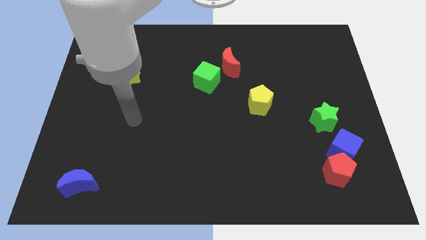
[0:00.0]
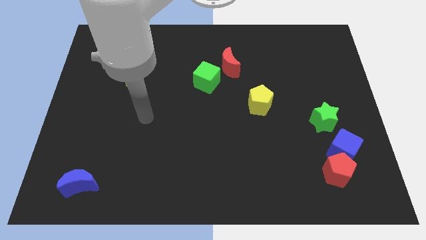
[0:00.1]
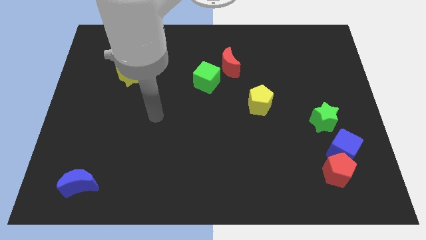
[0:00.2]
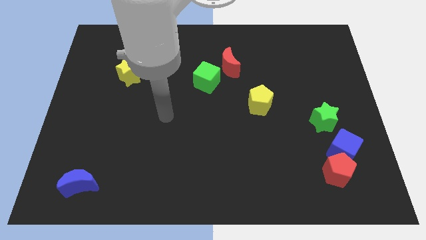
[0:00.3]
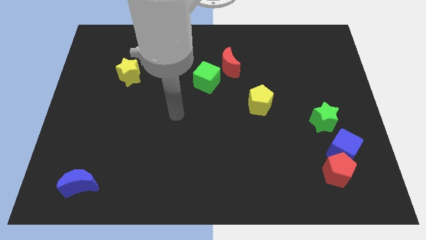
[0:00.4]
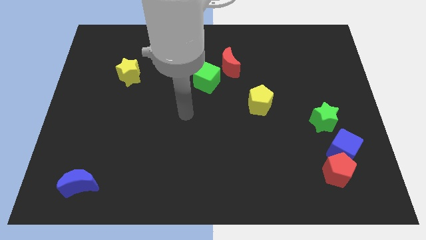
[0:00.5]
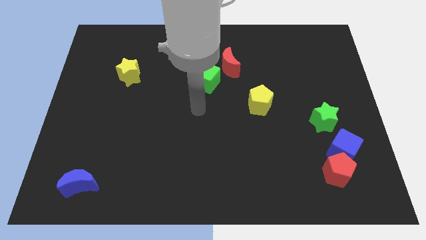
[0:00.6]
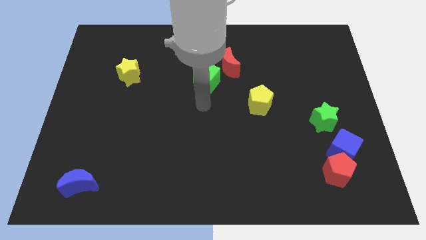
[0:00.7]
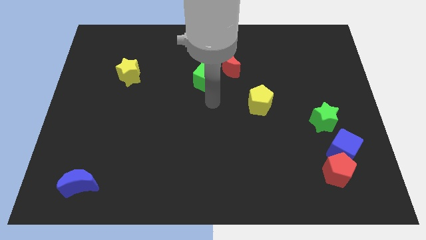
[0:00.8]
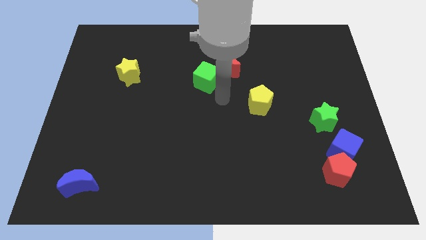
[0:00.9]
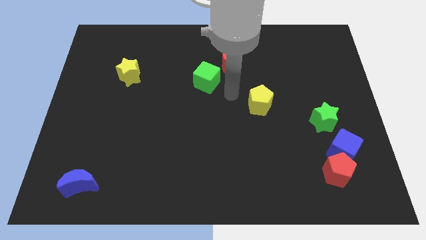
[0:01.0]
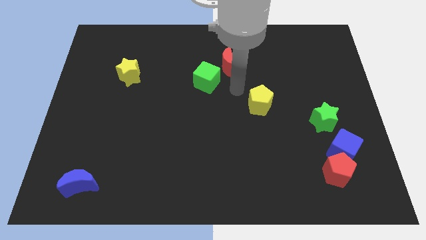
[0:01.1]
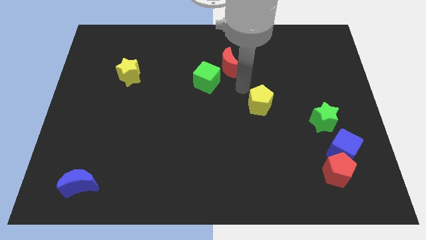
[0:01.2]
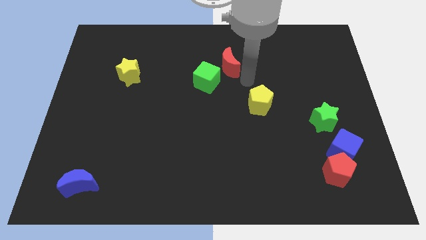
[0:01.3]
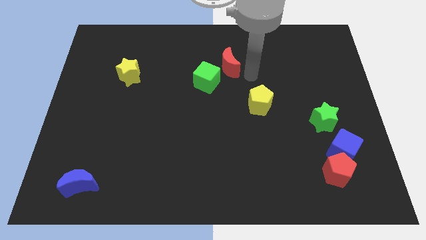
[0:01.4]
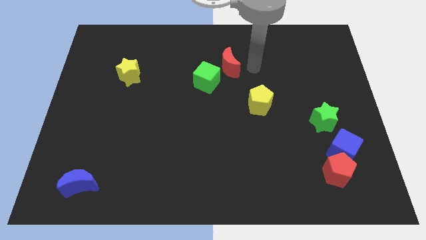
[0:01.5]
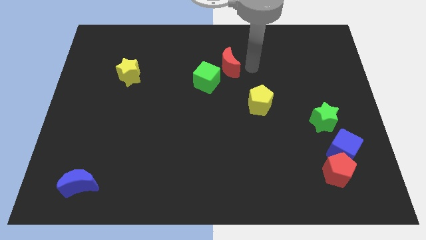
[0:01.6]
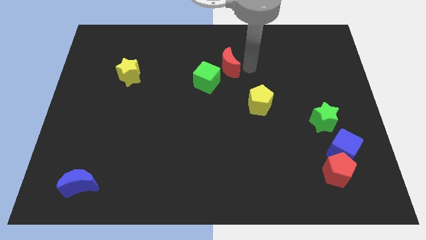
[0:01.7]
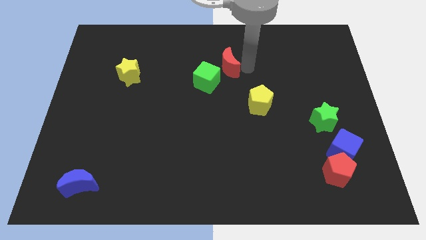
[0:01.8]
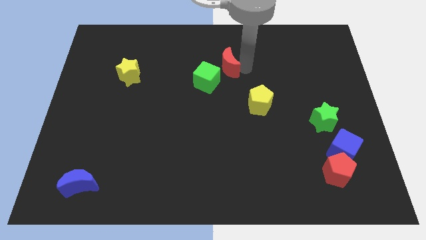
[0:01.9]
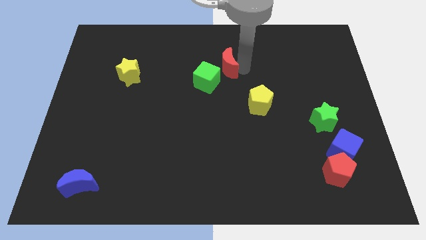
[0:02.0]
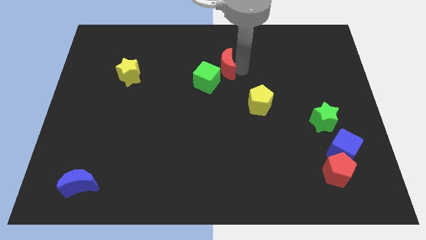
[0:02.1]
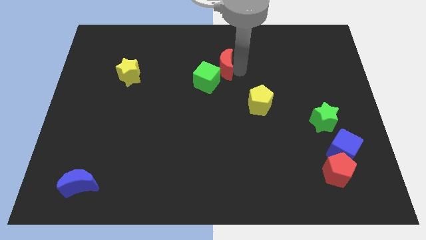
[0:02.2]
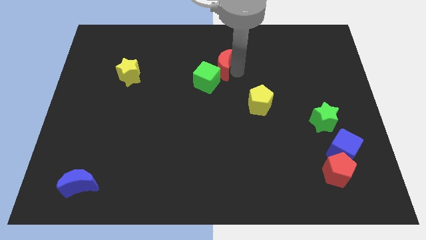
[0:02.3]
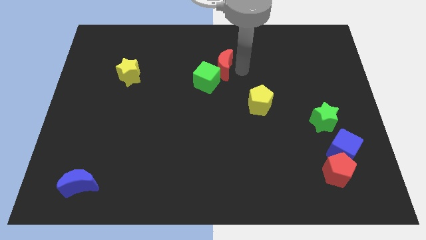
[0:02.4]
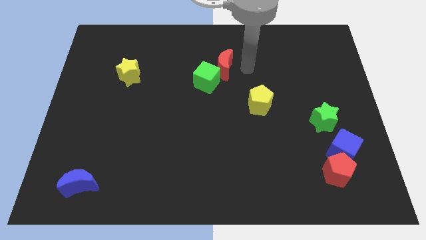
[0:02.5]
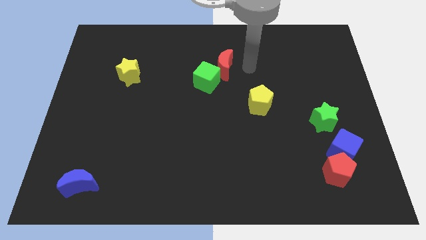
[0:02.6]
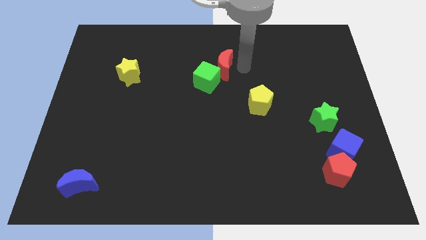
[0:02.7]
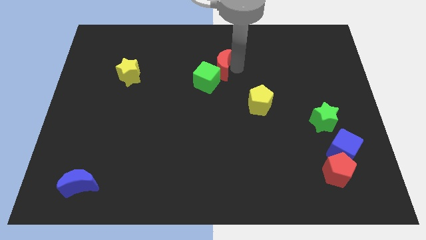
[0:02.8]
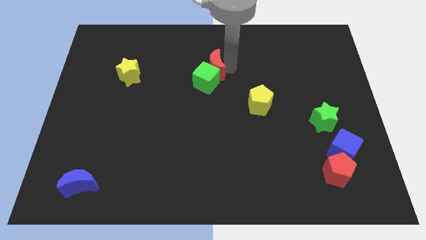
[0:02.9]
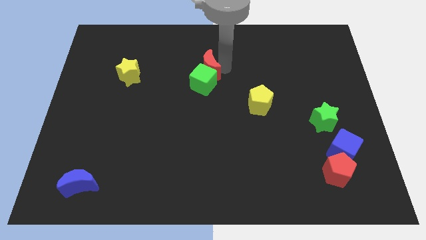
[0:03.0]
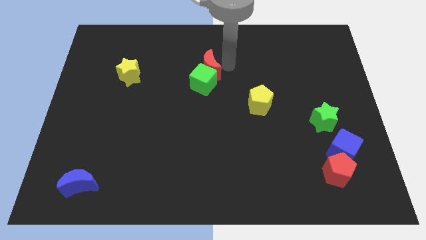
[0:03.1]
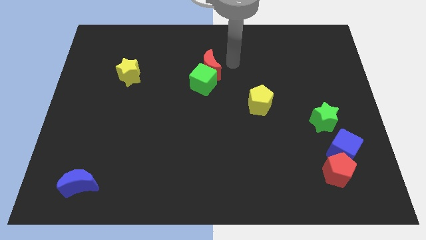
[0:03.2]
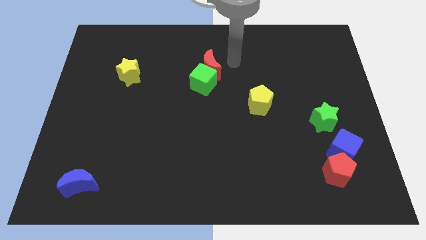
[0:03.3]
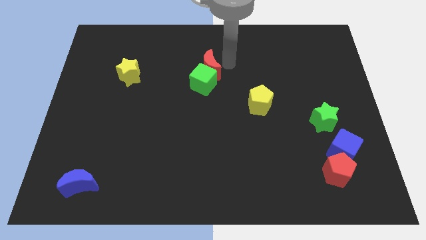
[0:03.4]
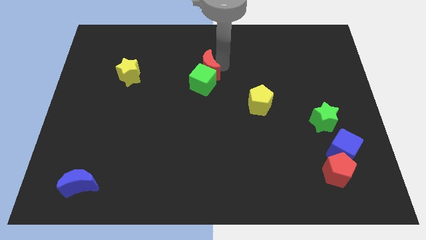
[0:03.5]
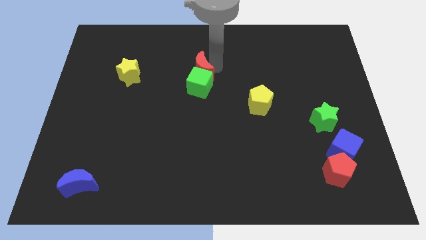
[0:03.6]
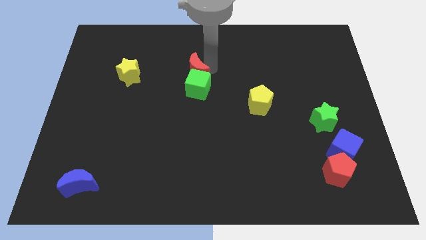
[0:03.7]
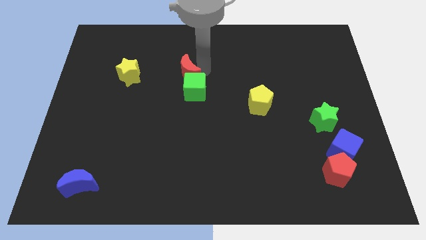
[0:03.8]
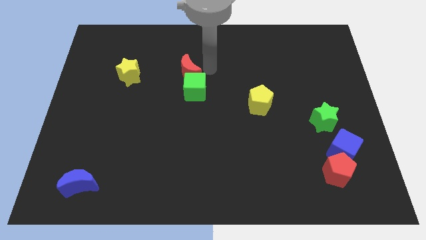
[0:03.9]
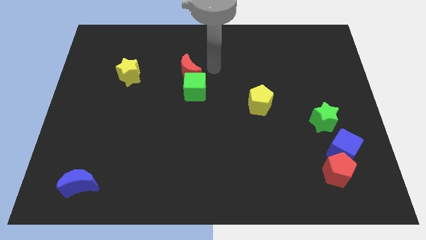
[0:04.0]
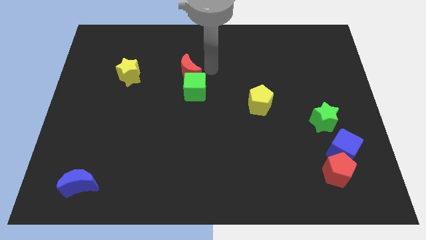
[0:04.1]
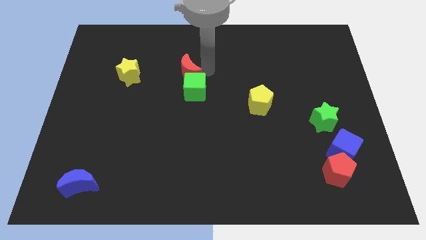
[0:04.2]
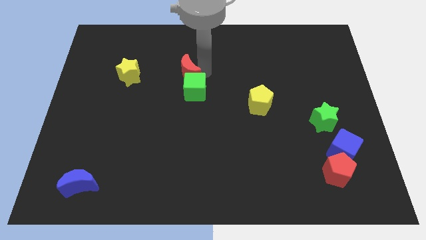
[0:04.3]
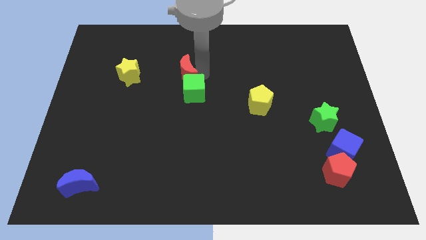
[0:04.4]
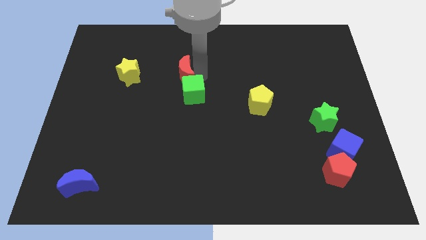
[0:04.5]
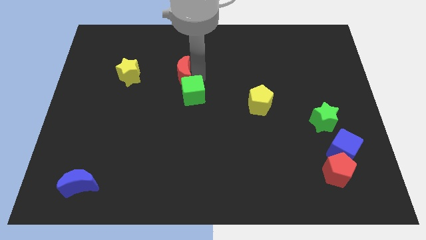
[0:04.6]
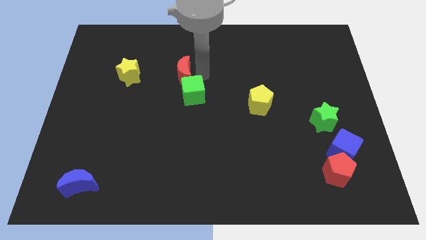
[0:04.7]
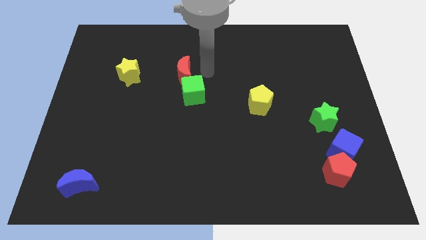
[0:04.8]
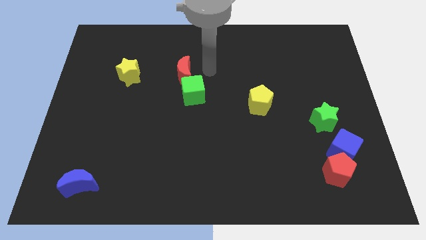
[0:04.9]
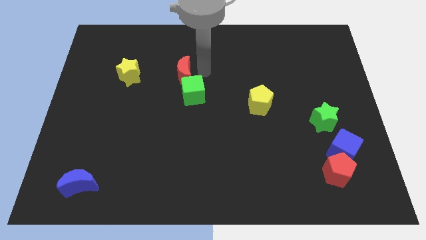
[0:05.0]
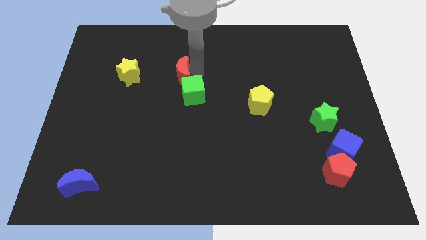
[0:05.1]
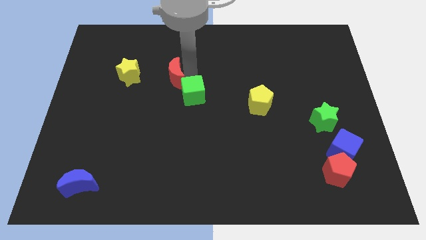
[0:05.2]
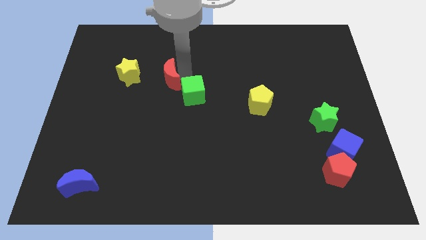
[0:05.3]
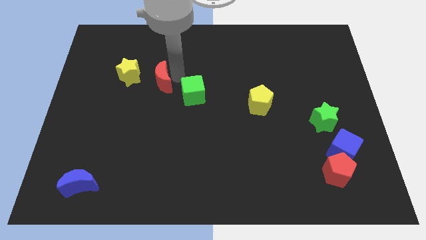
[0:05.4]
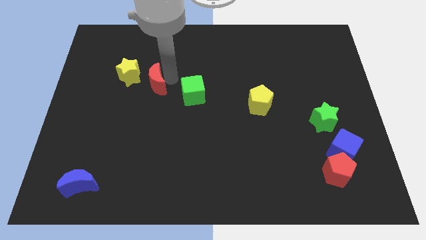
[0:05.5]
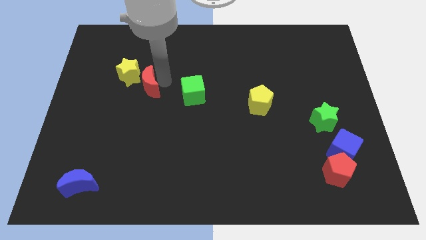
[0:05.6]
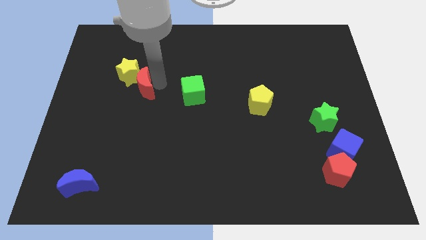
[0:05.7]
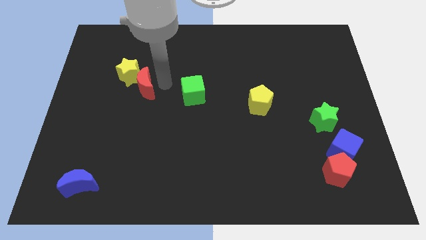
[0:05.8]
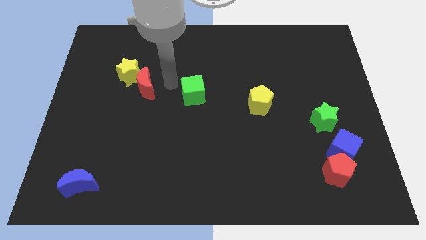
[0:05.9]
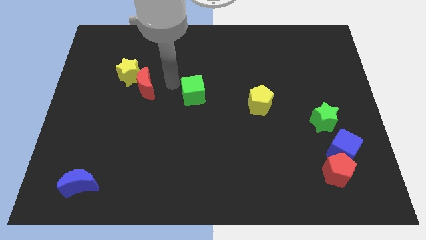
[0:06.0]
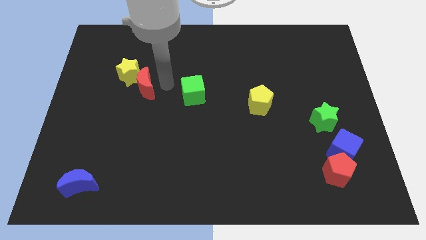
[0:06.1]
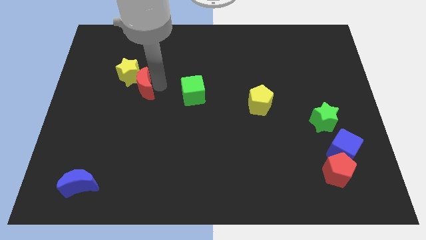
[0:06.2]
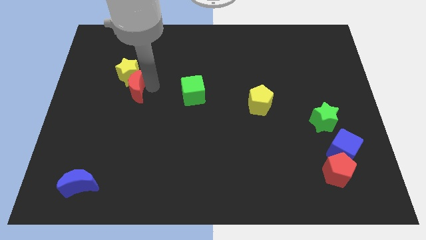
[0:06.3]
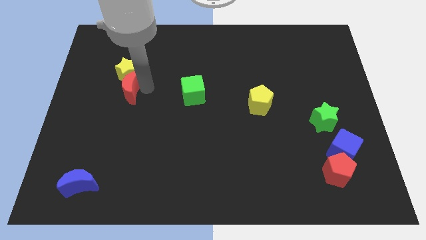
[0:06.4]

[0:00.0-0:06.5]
move the red moon to the bottom left side of the yellow star

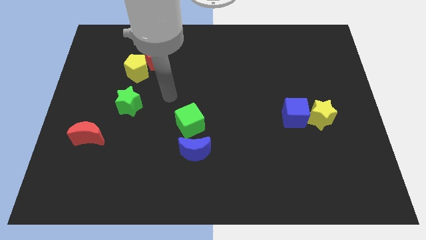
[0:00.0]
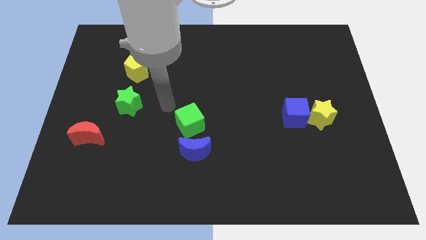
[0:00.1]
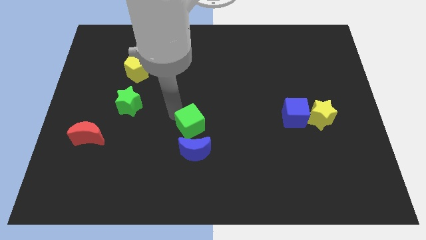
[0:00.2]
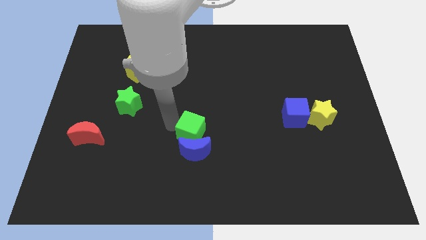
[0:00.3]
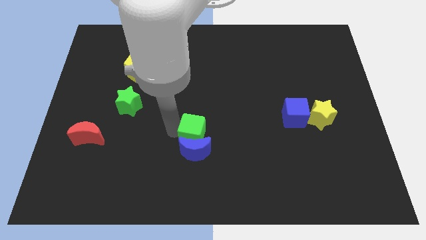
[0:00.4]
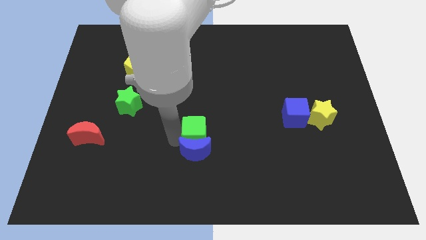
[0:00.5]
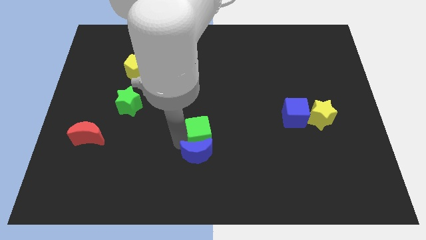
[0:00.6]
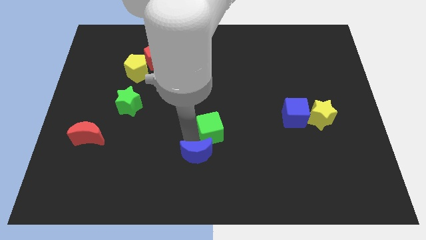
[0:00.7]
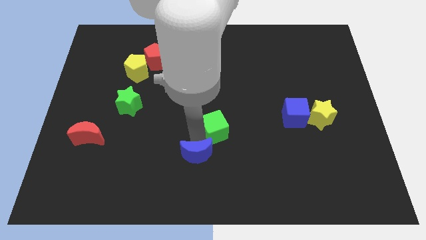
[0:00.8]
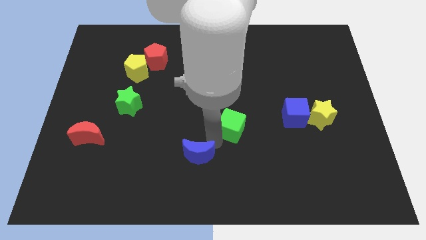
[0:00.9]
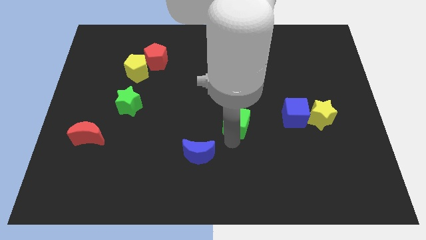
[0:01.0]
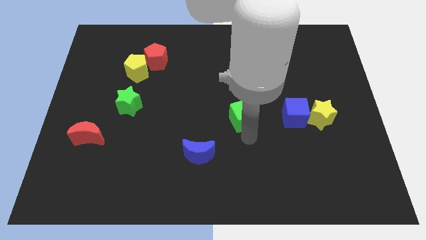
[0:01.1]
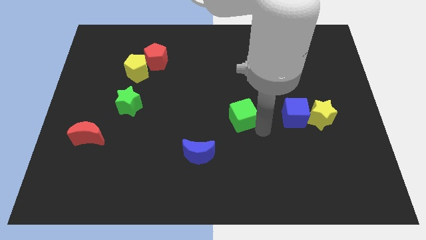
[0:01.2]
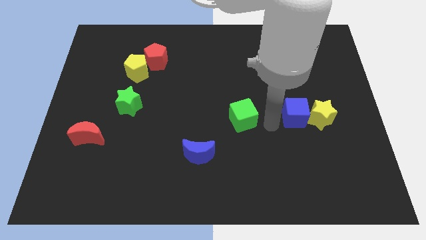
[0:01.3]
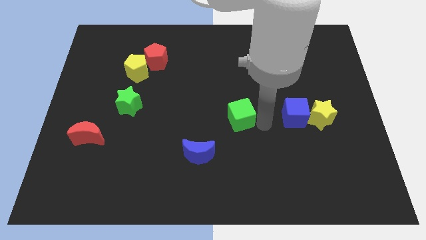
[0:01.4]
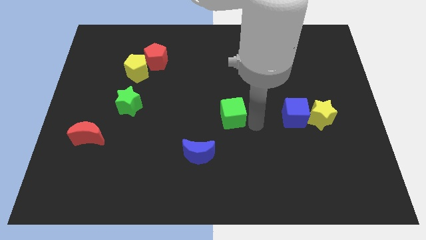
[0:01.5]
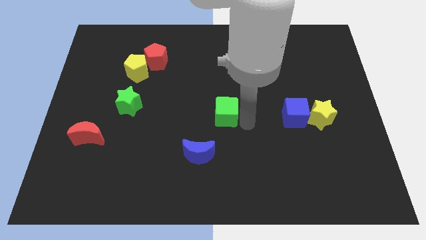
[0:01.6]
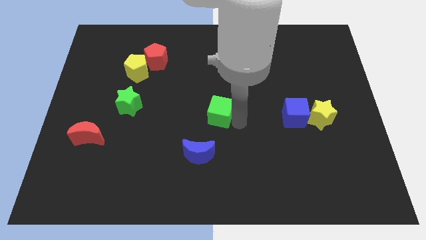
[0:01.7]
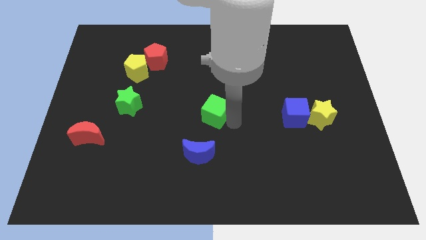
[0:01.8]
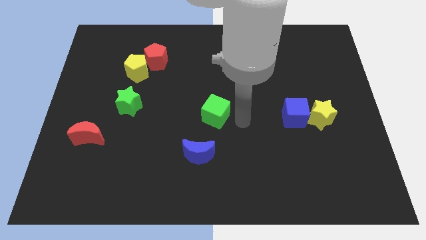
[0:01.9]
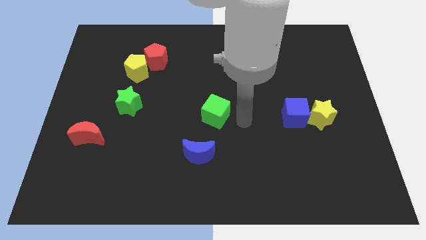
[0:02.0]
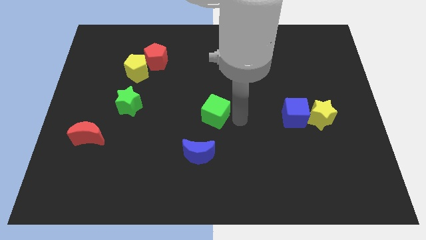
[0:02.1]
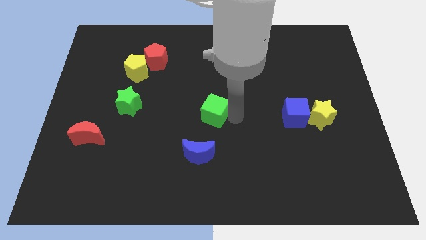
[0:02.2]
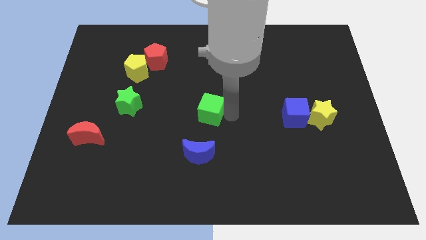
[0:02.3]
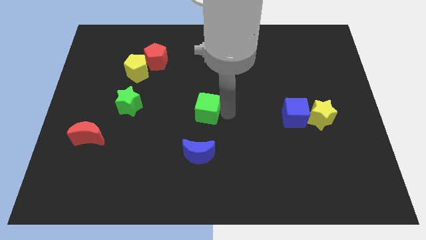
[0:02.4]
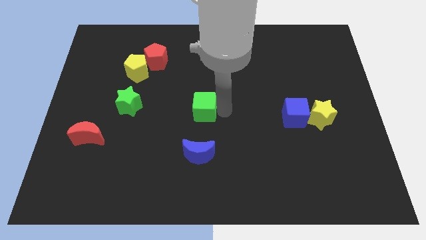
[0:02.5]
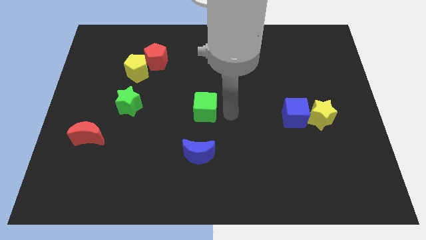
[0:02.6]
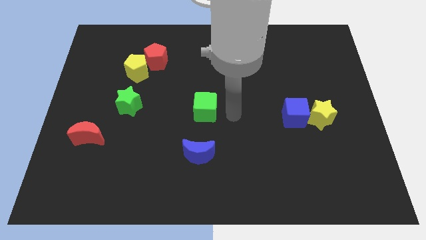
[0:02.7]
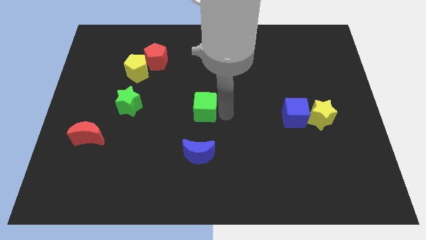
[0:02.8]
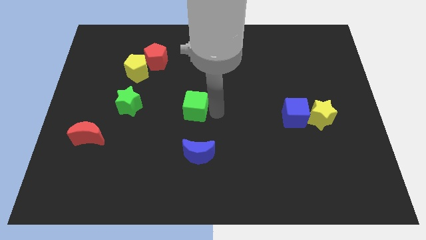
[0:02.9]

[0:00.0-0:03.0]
put the green cube just right of the green star
